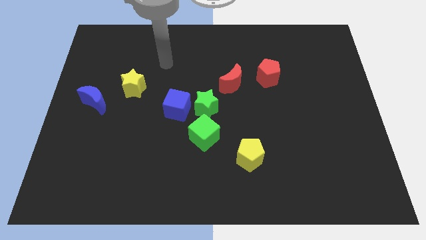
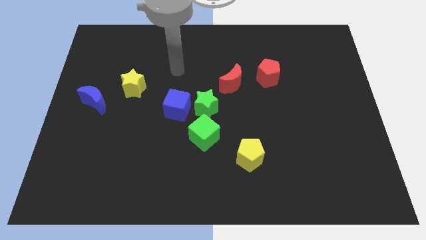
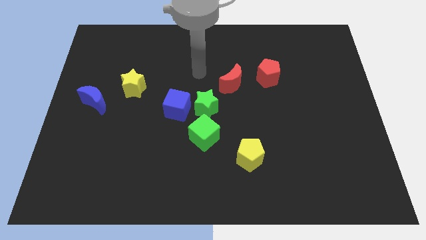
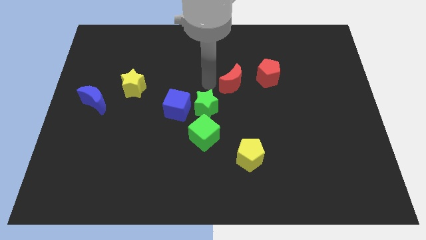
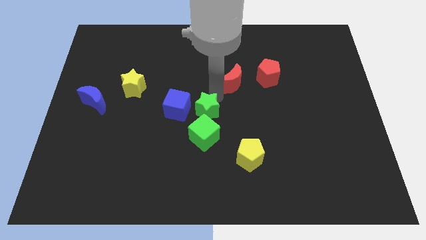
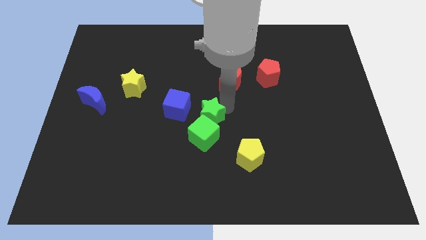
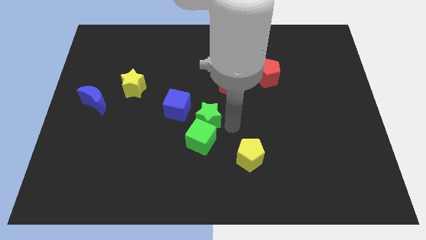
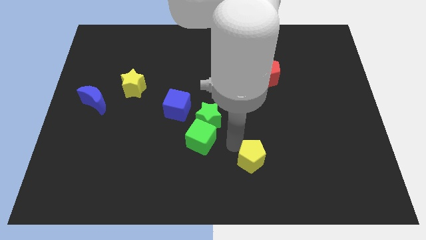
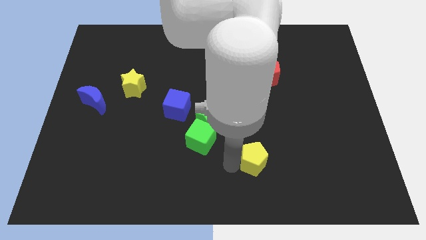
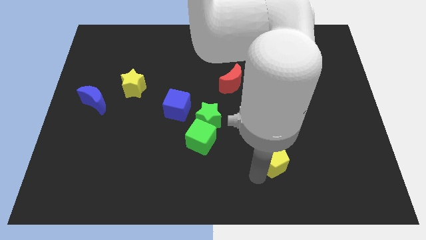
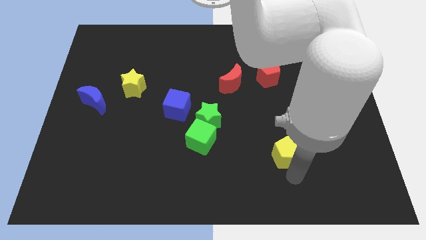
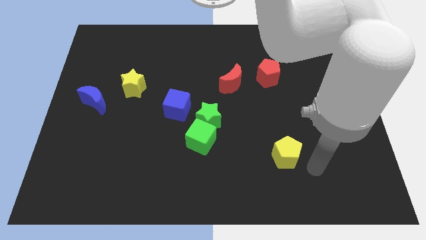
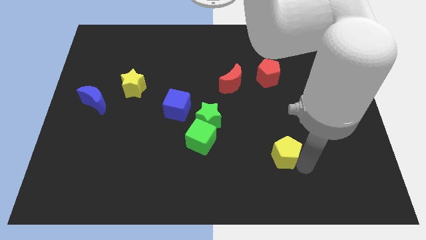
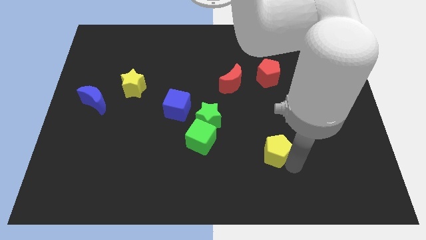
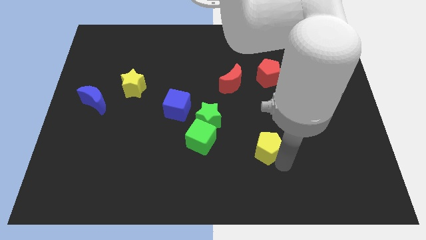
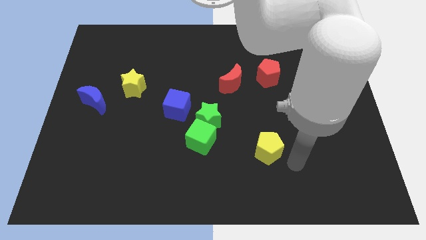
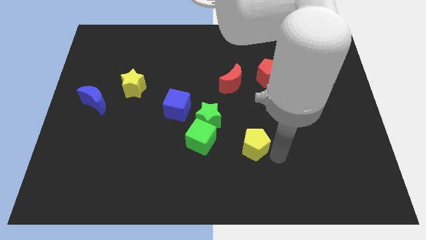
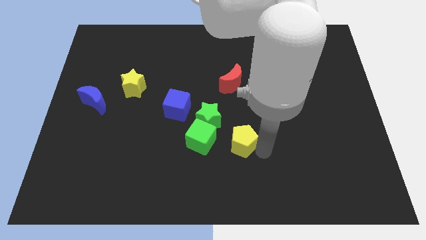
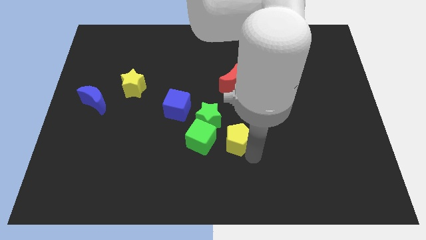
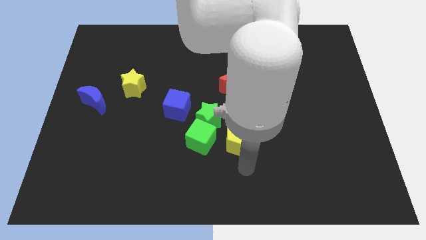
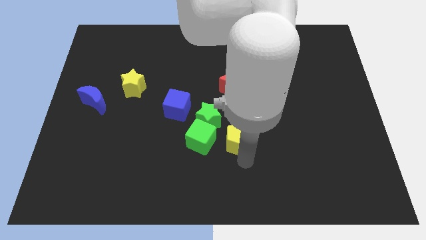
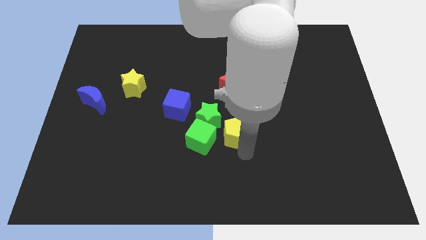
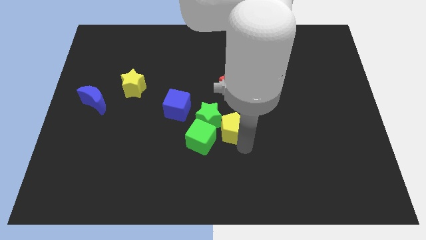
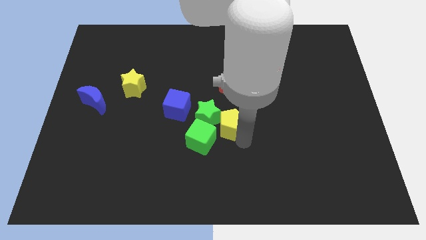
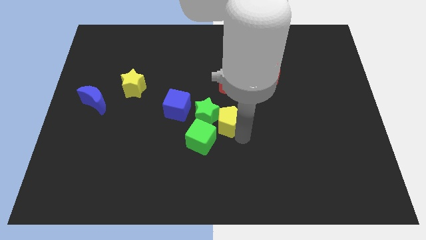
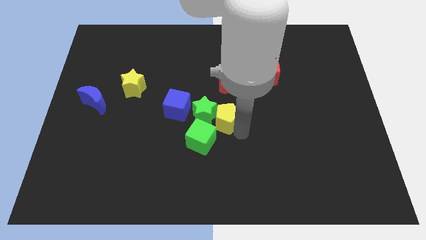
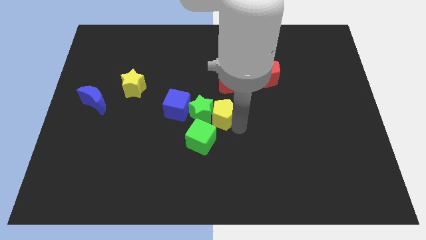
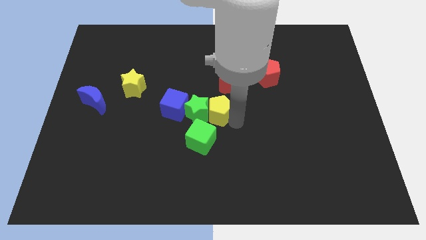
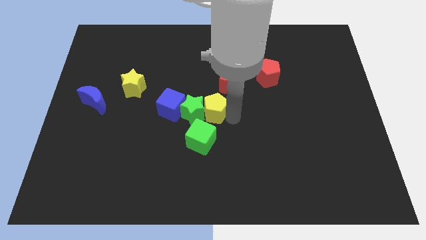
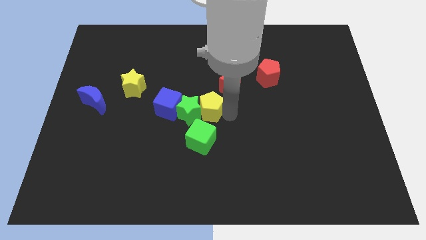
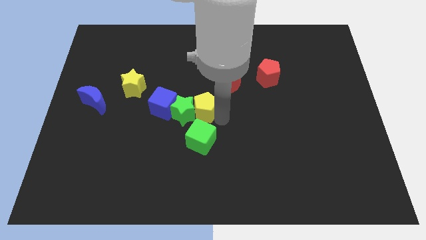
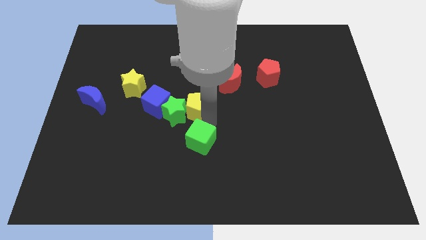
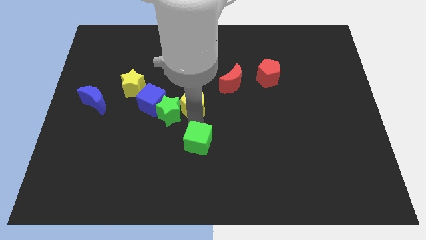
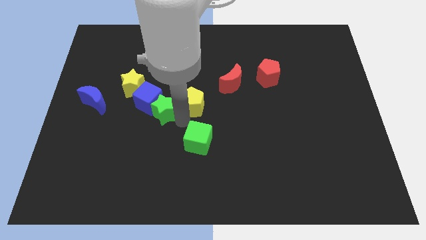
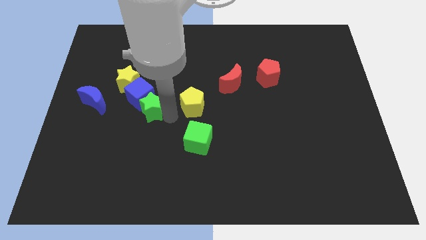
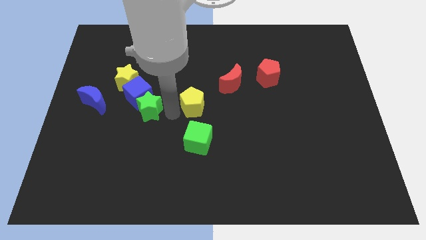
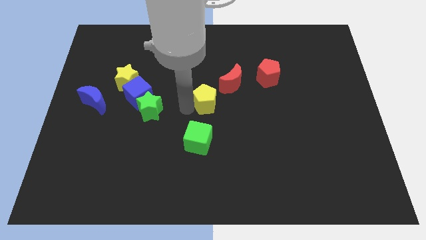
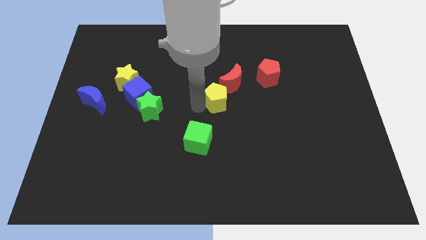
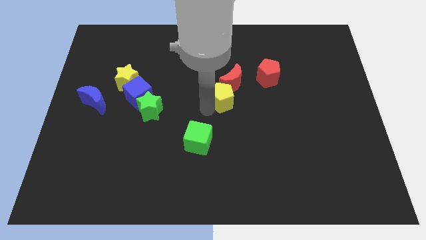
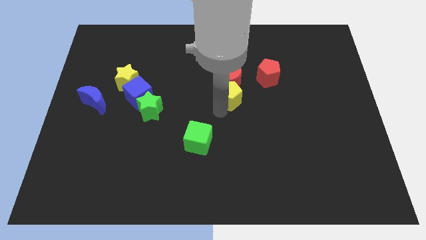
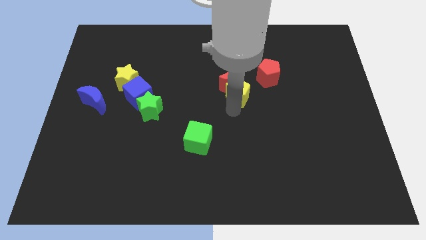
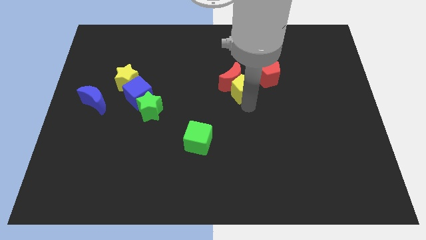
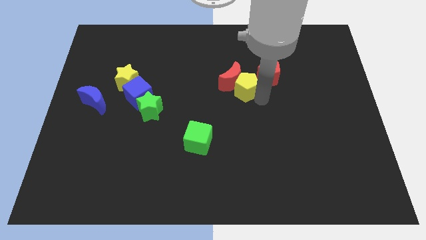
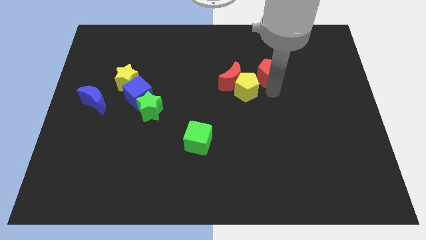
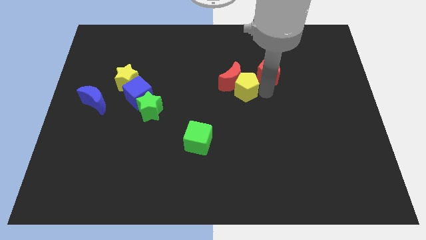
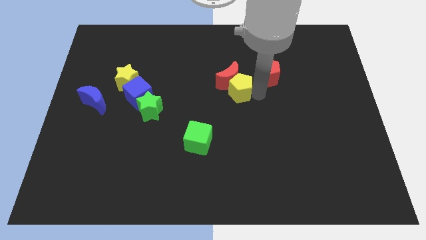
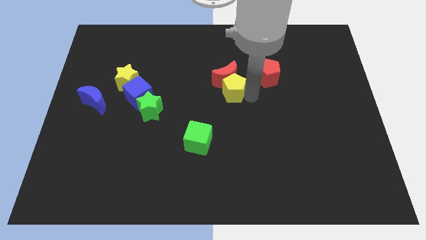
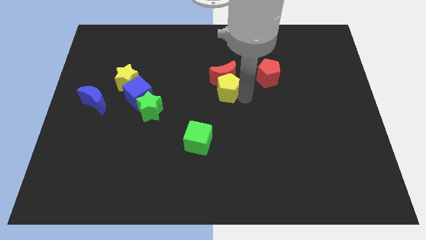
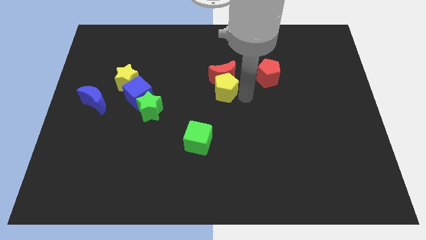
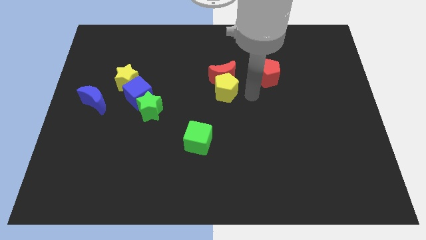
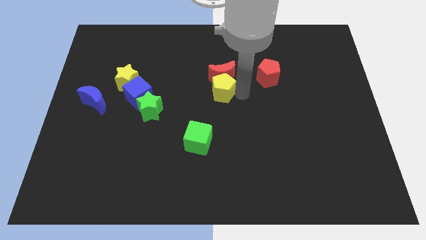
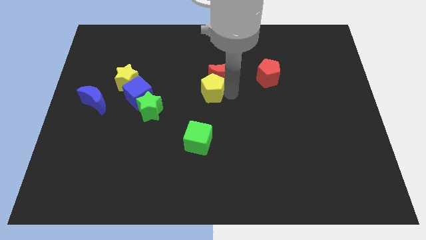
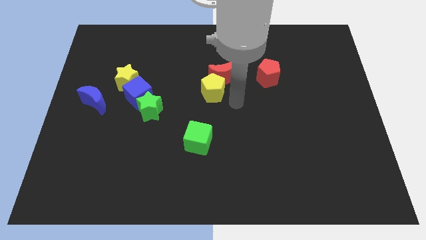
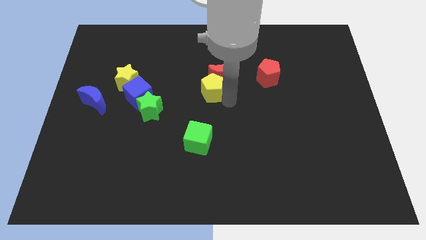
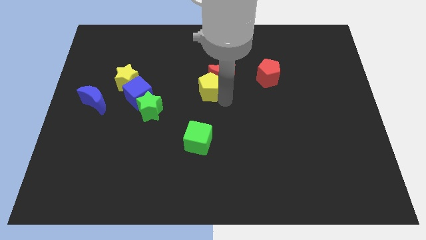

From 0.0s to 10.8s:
push the yellow pentagon just left of the red moon

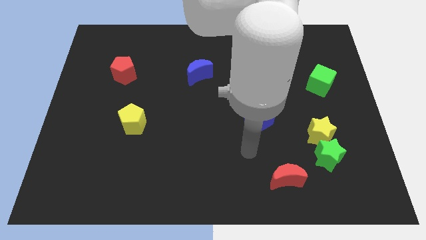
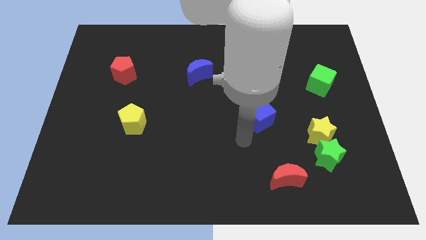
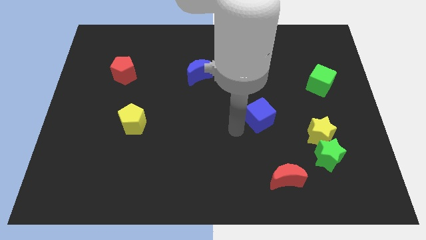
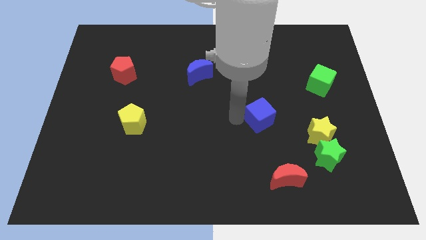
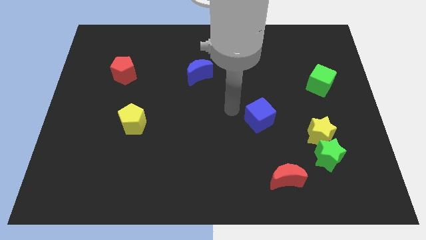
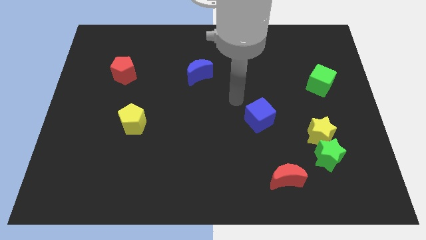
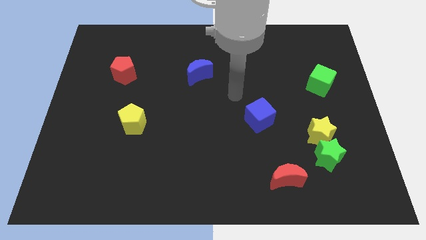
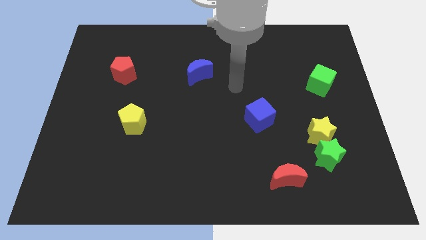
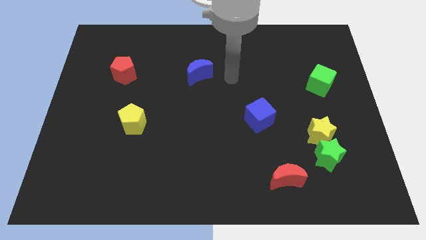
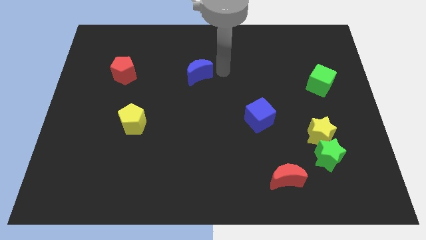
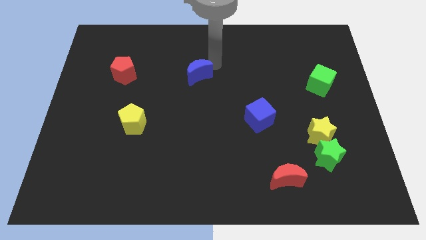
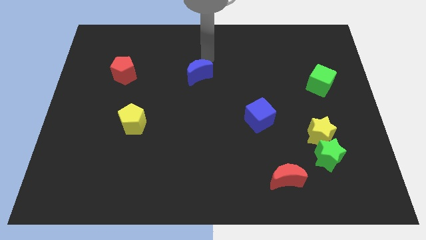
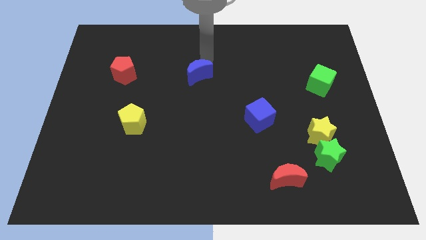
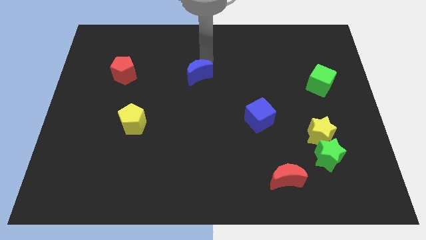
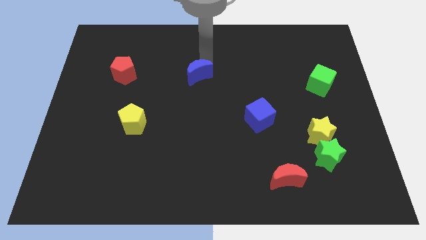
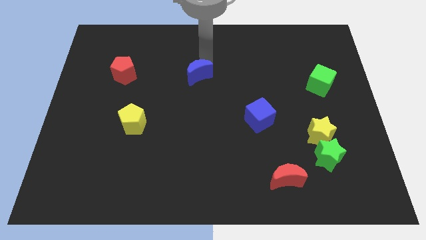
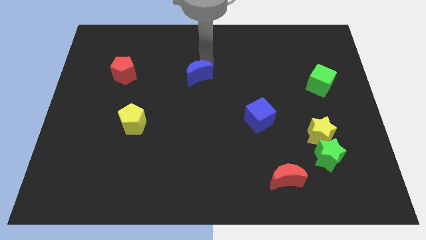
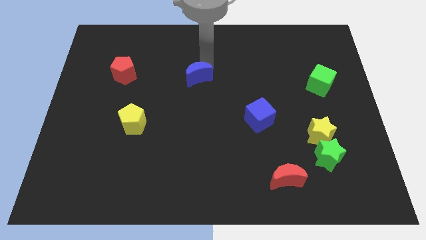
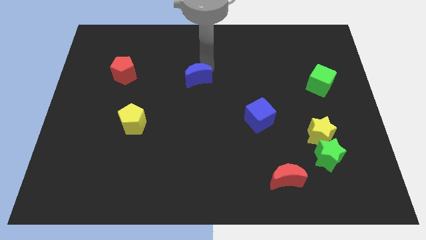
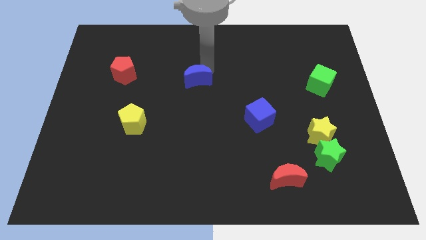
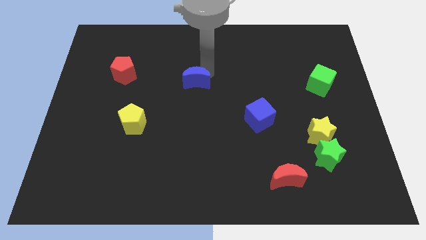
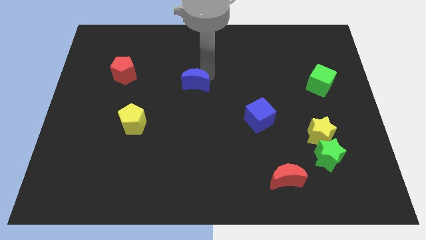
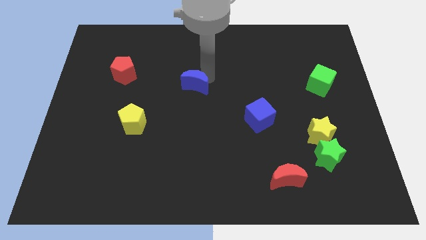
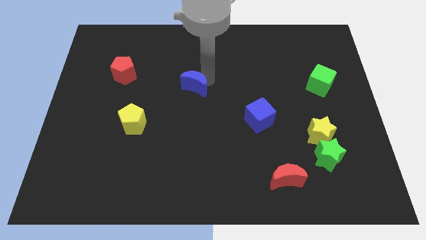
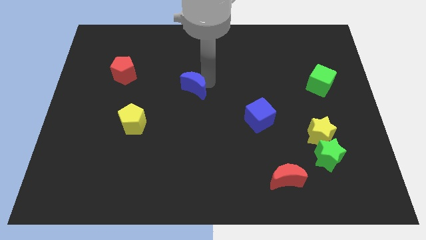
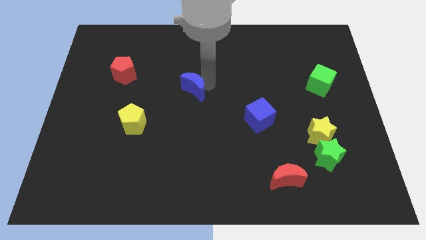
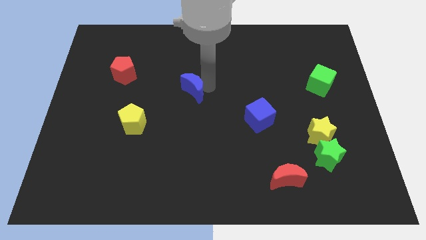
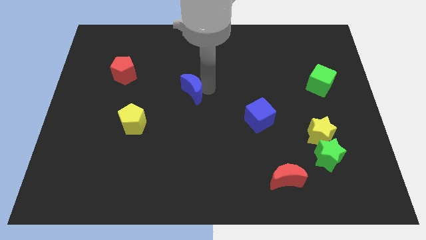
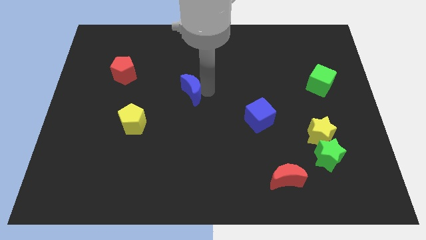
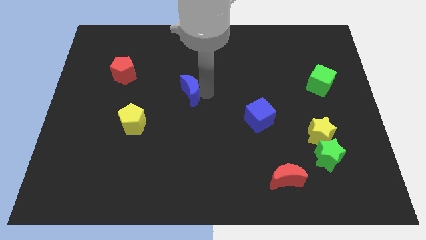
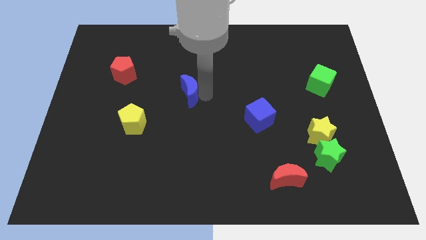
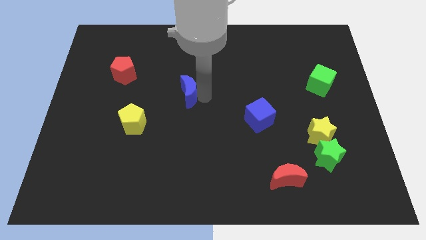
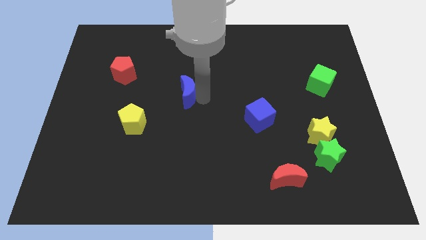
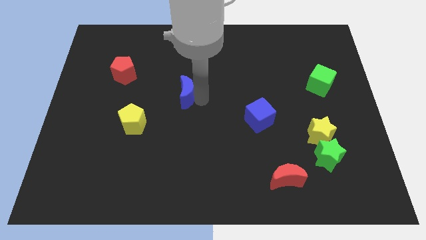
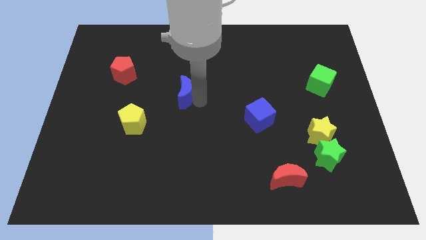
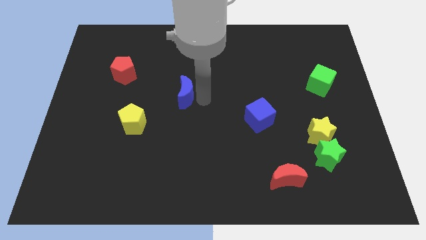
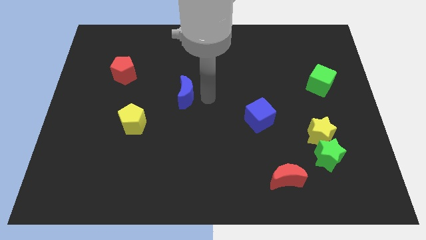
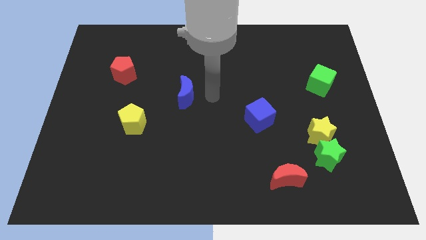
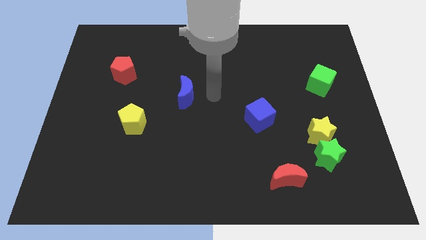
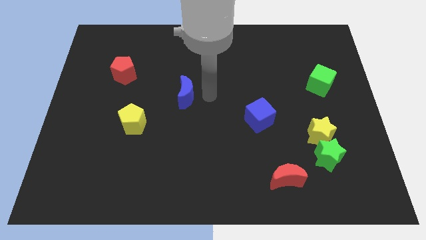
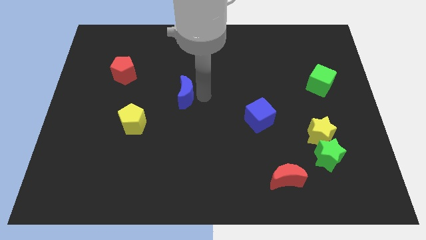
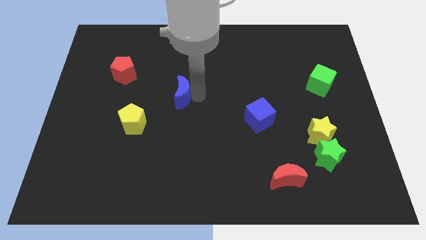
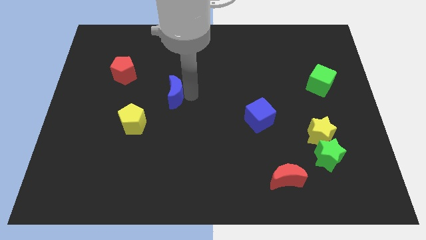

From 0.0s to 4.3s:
put the blue moon to the top right of the yellow pentagon
